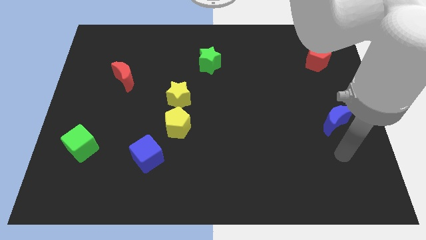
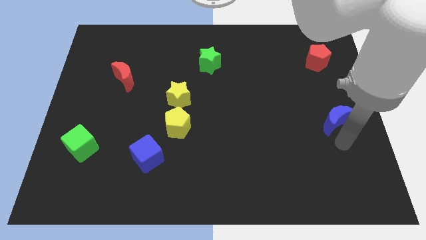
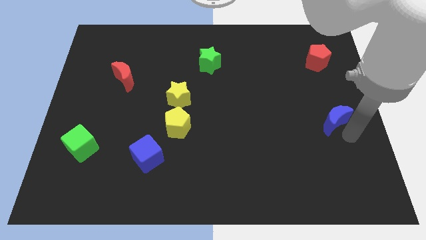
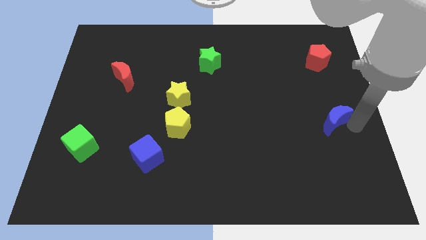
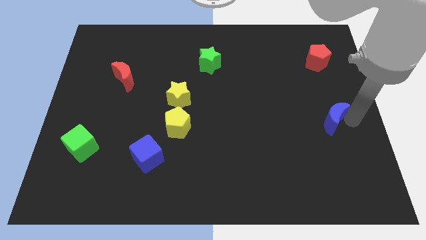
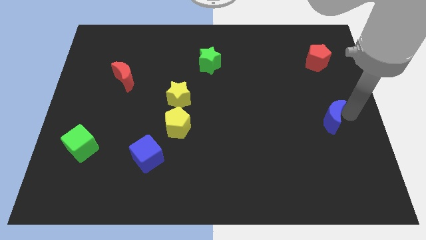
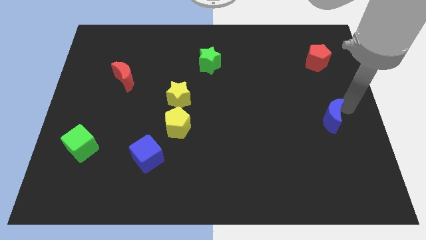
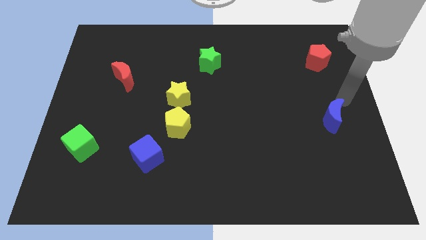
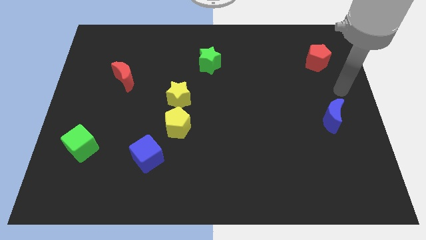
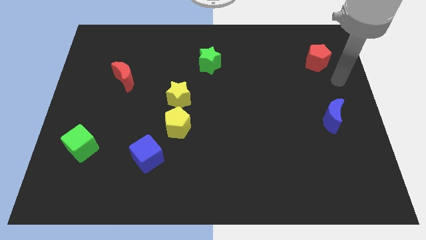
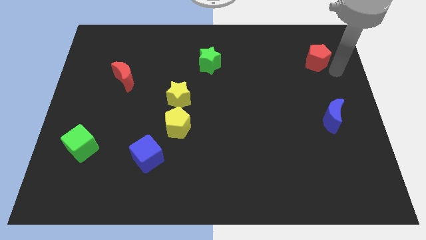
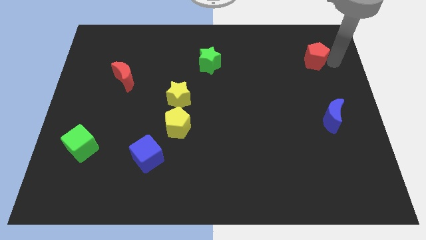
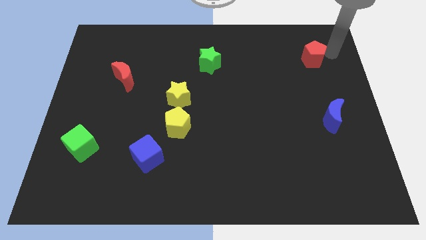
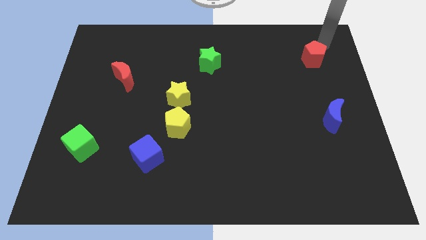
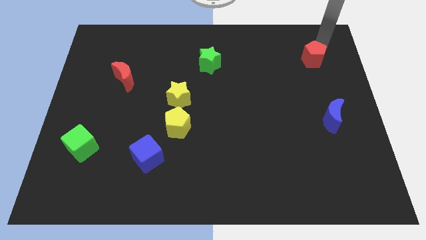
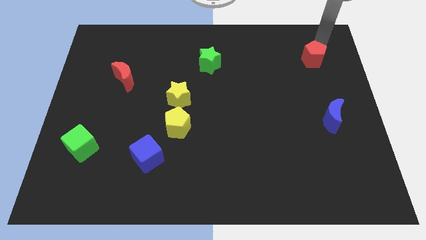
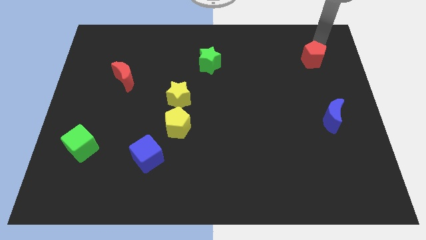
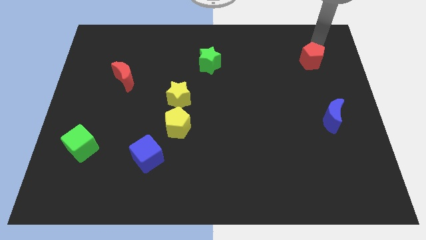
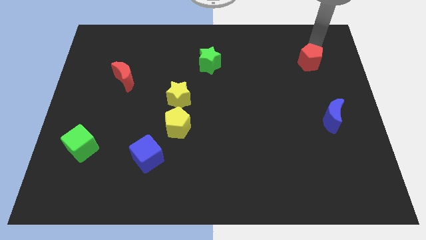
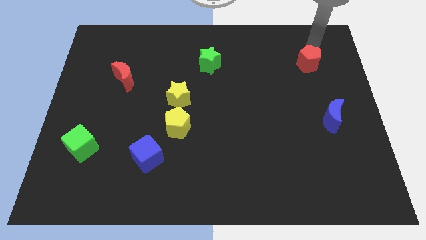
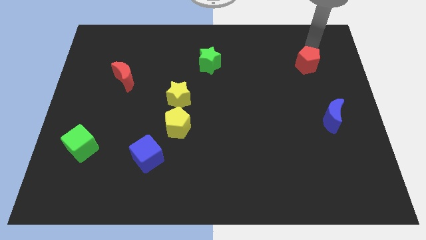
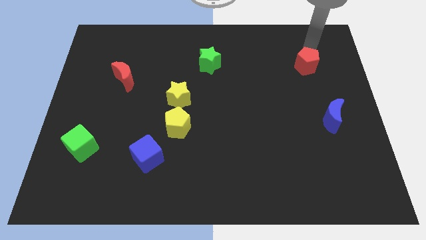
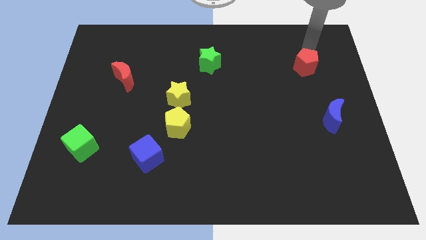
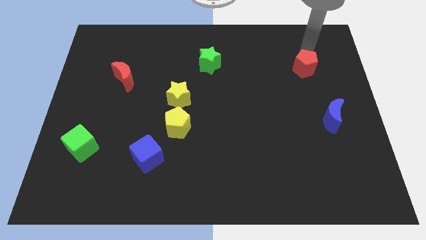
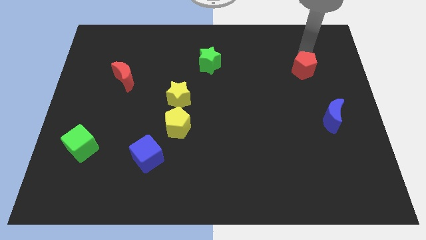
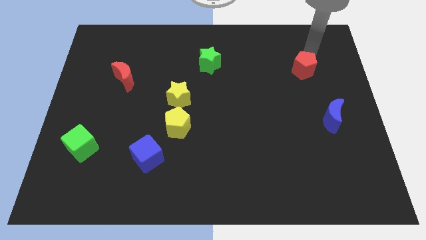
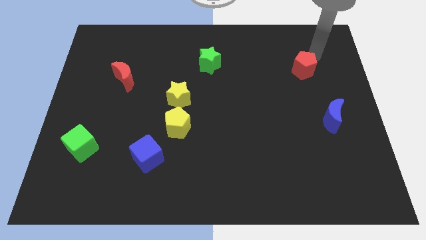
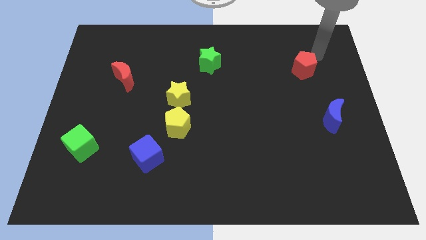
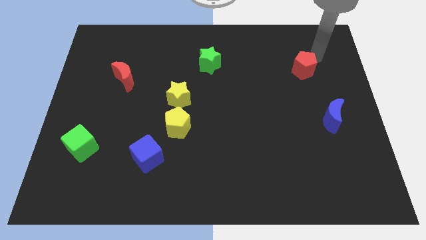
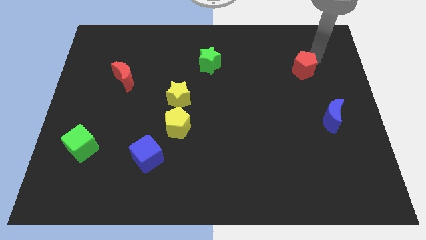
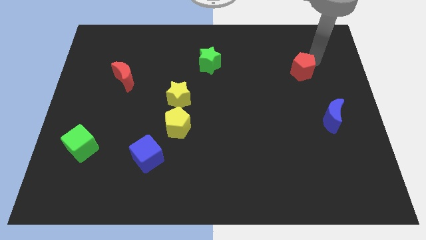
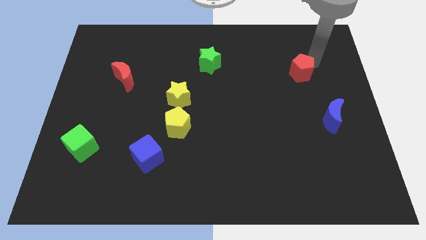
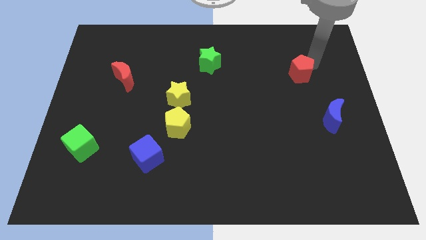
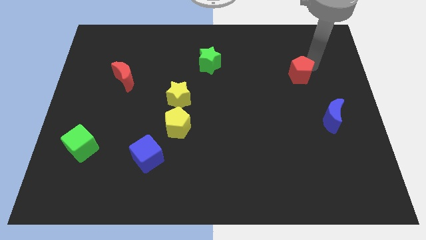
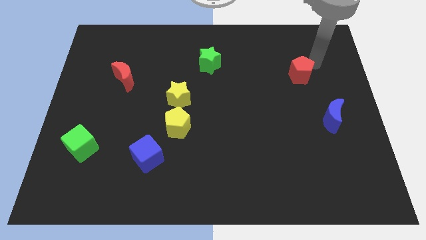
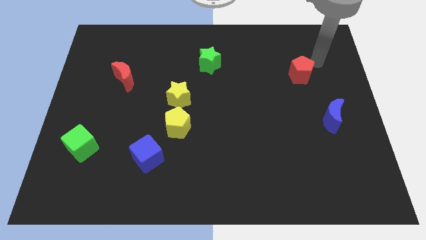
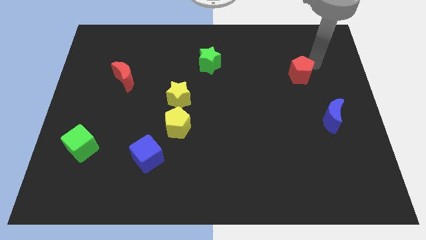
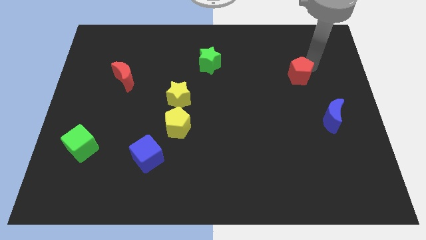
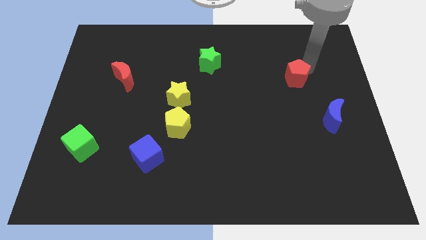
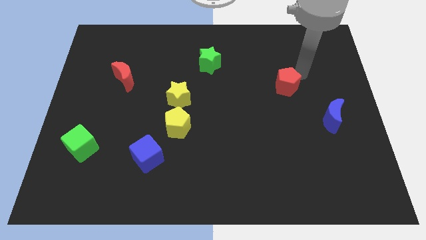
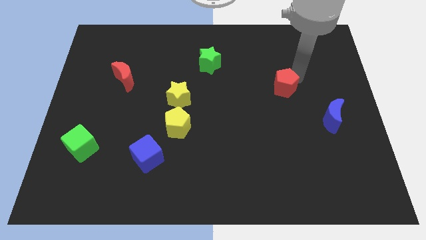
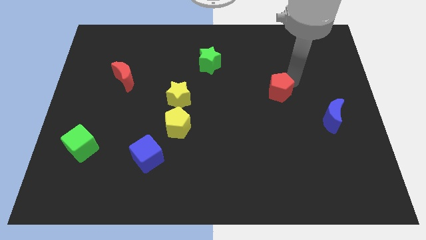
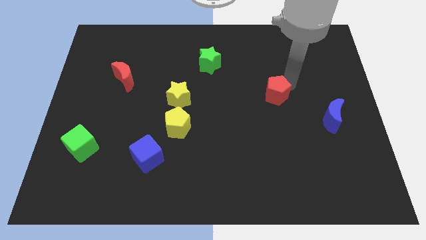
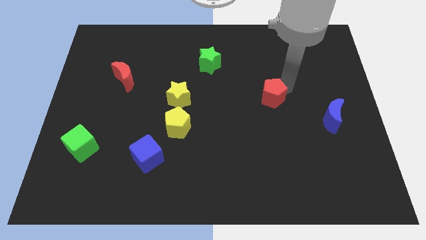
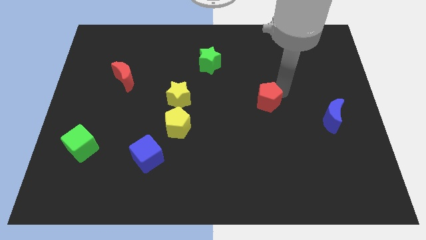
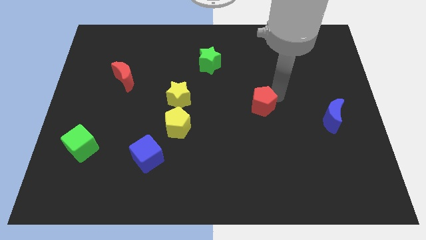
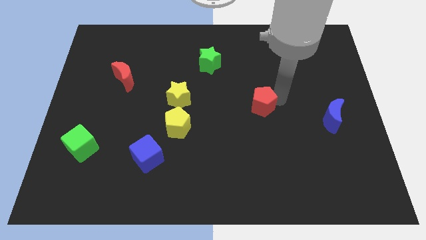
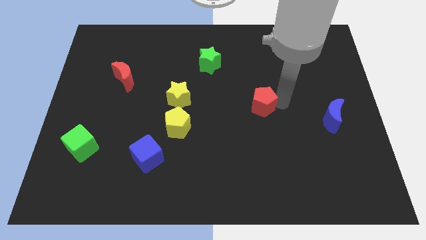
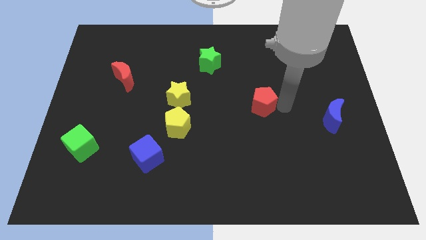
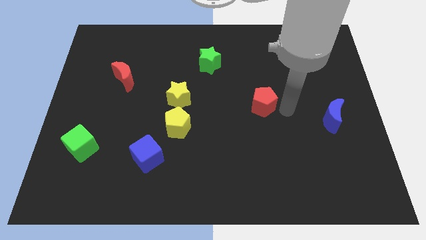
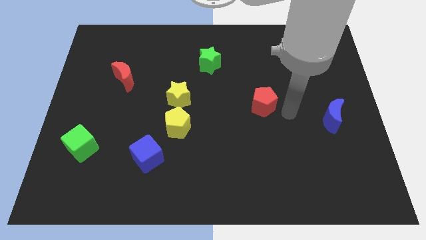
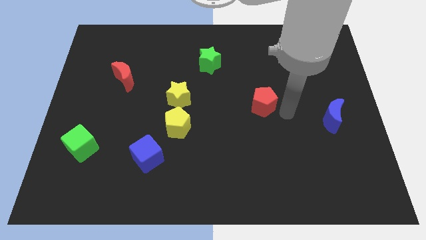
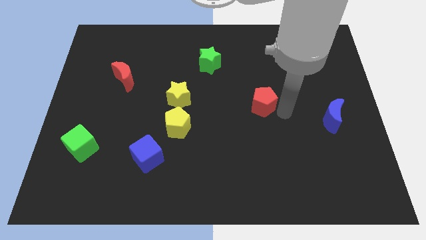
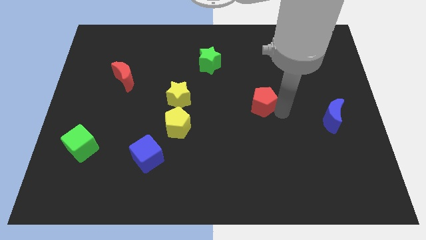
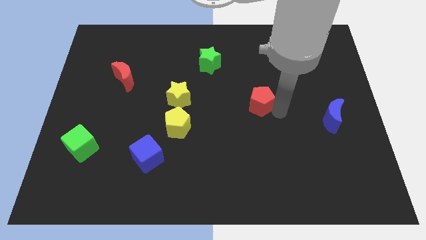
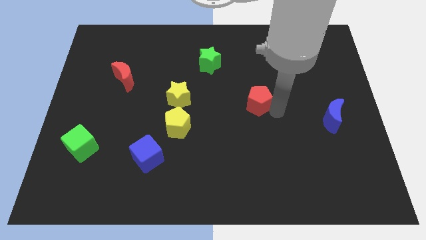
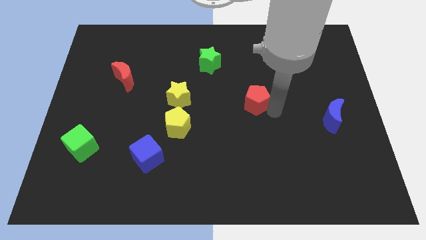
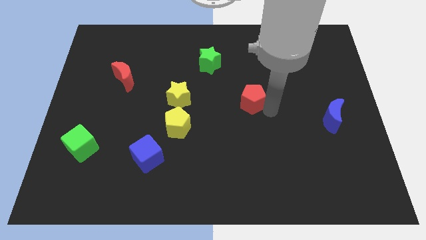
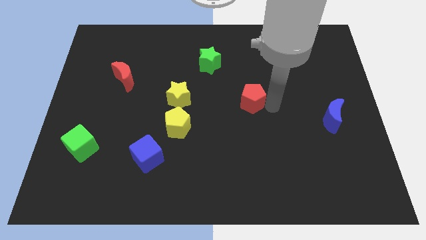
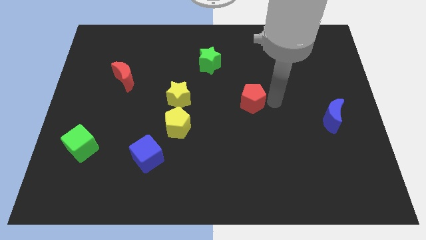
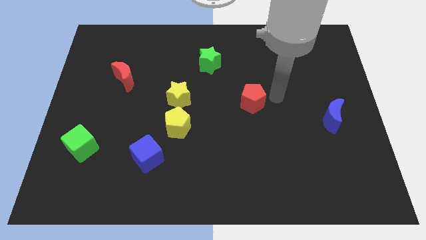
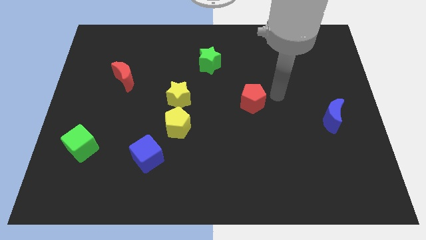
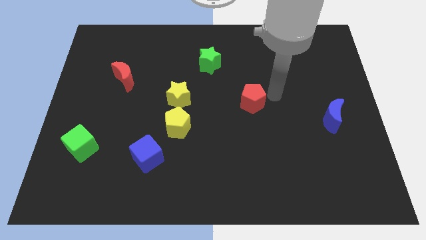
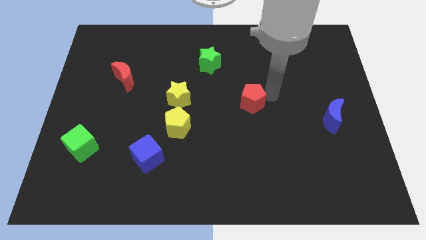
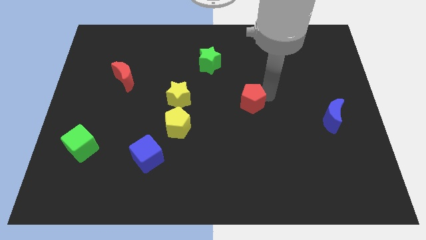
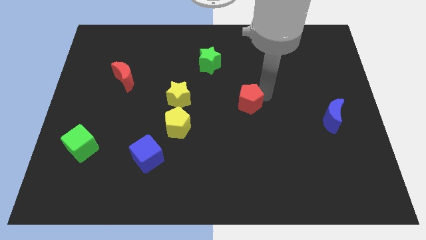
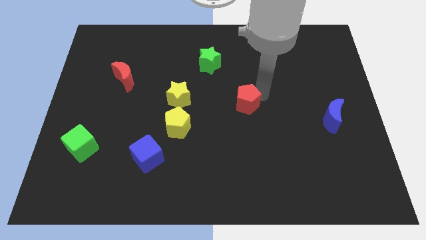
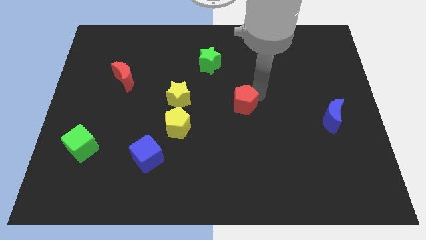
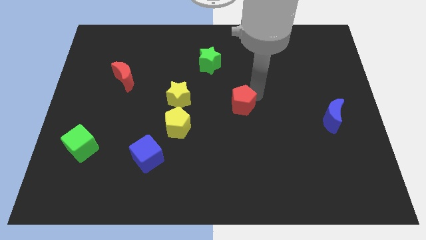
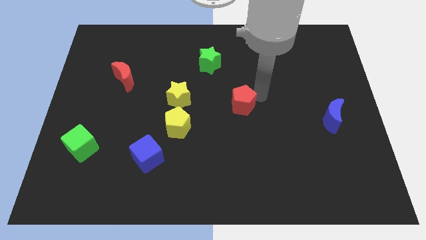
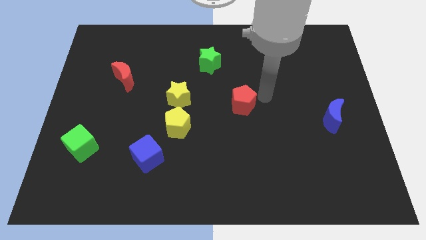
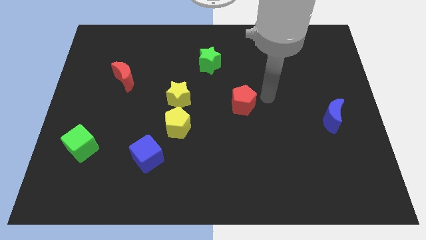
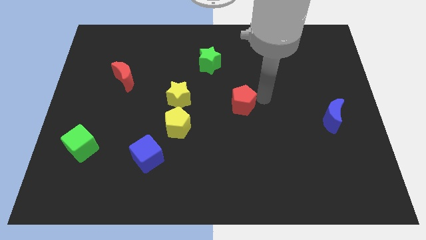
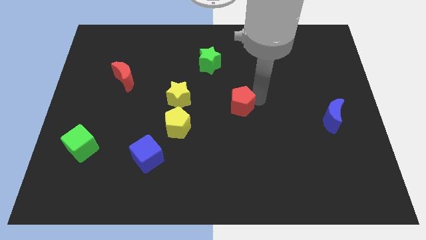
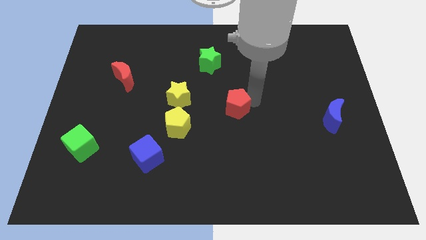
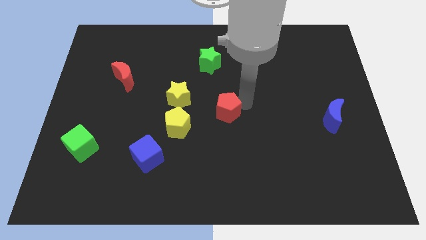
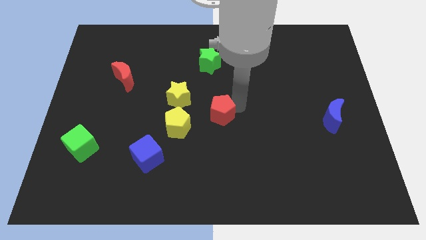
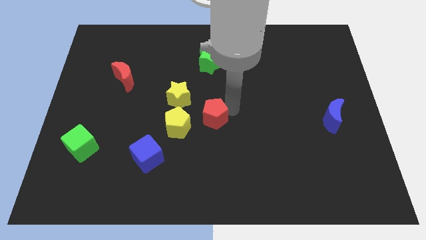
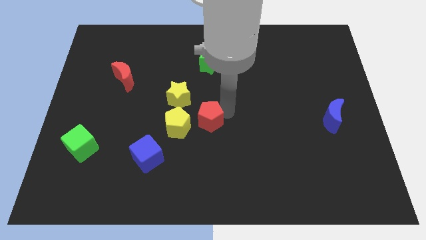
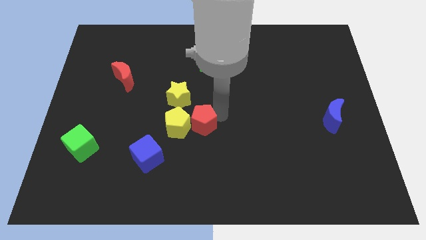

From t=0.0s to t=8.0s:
move the red pentagon to the yellow pentagon

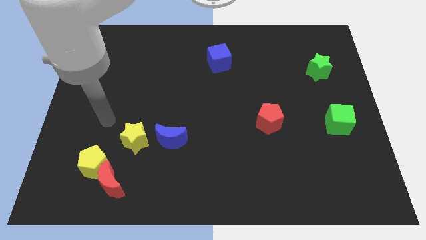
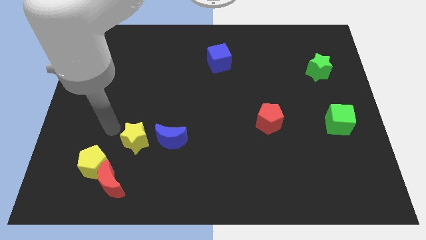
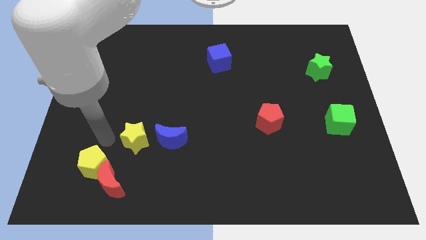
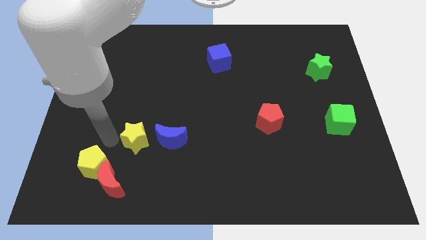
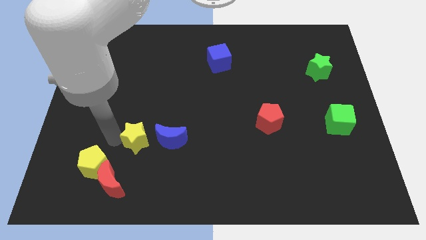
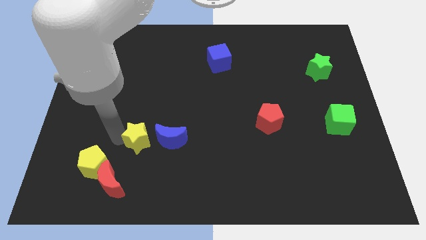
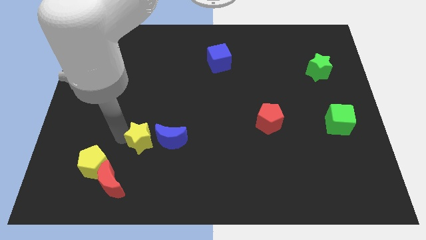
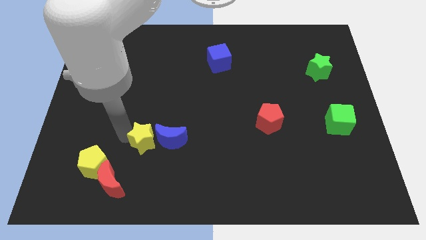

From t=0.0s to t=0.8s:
put the yellow star to the blue moon
